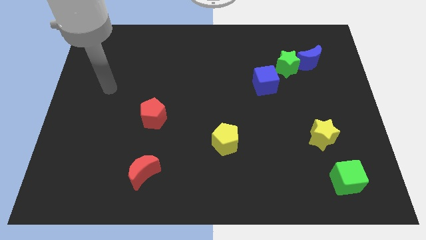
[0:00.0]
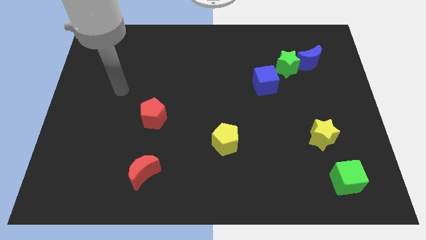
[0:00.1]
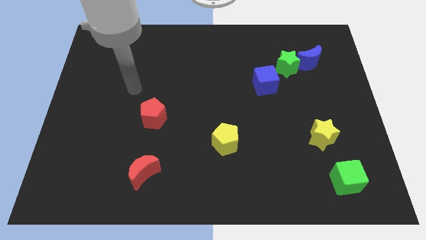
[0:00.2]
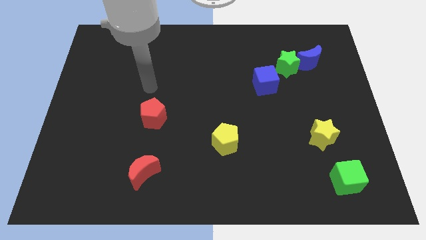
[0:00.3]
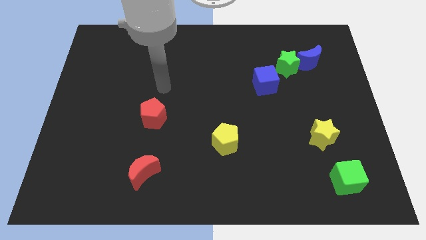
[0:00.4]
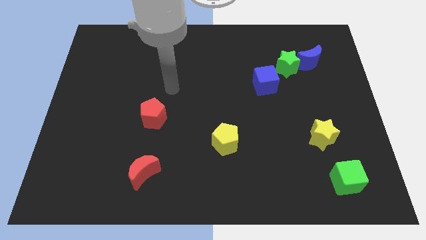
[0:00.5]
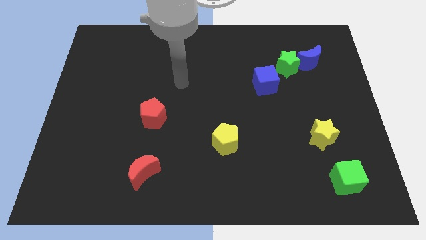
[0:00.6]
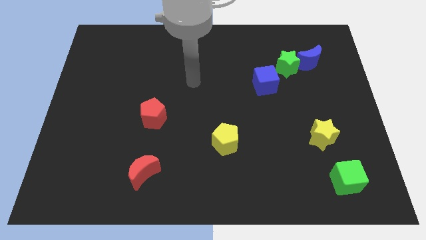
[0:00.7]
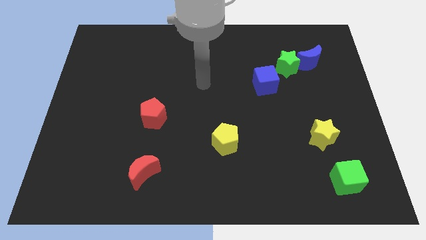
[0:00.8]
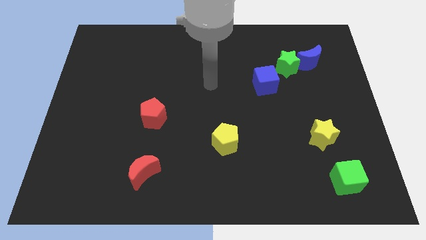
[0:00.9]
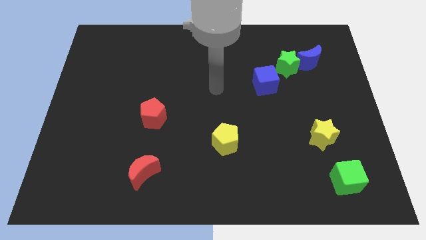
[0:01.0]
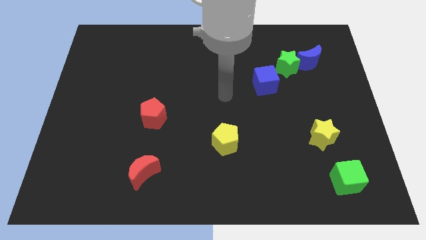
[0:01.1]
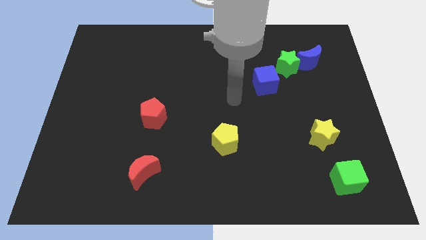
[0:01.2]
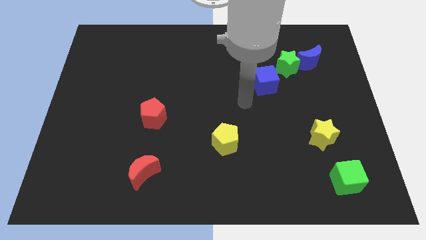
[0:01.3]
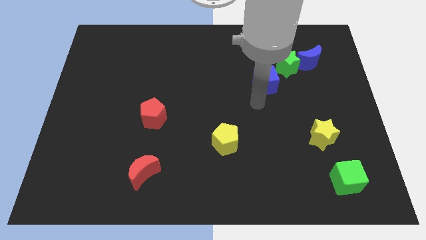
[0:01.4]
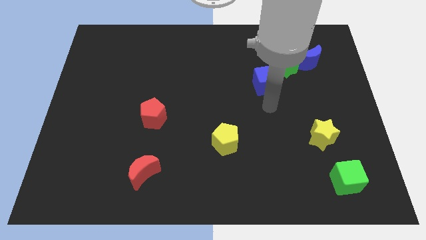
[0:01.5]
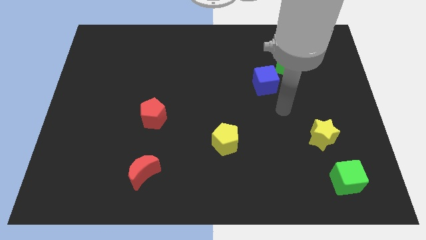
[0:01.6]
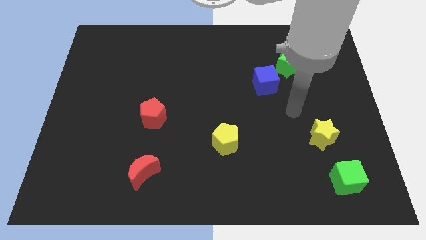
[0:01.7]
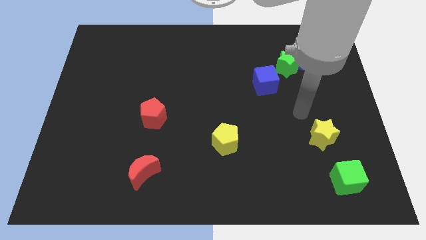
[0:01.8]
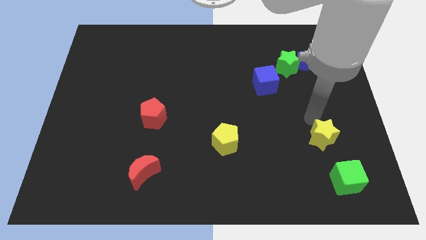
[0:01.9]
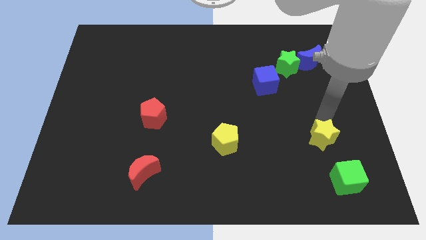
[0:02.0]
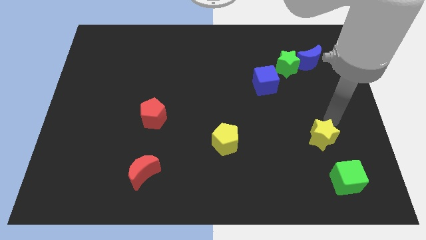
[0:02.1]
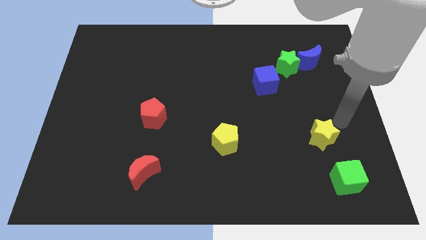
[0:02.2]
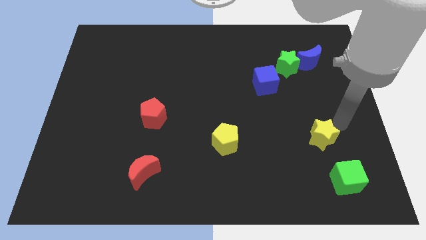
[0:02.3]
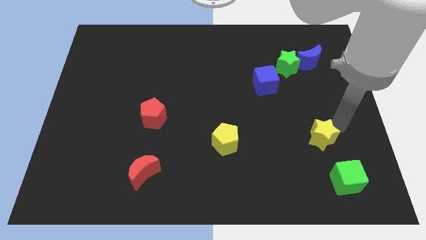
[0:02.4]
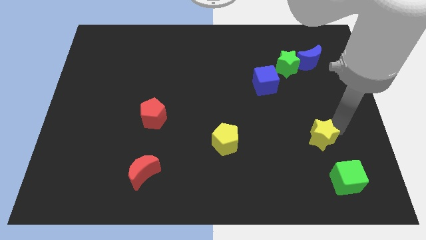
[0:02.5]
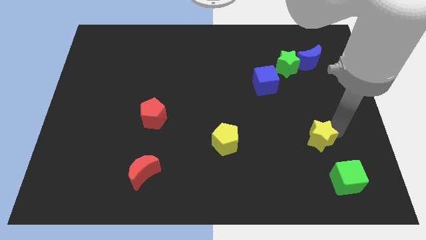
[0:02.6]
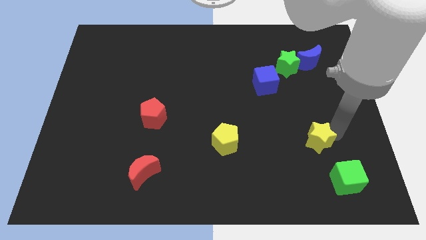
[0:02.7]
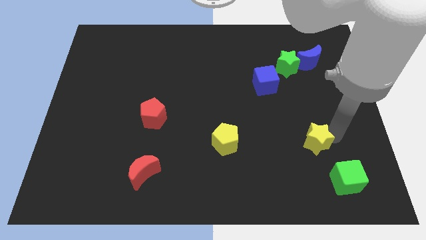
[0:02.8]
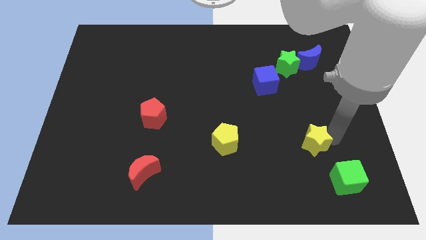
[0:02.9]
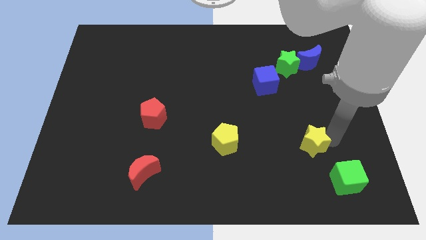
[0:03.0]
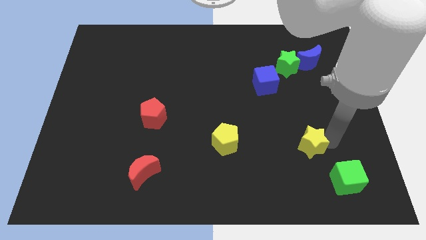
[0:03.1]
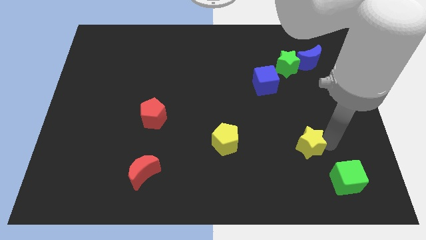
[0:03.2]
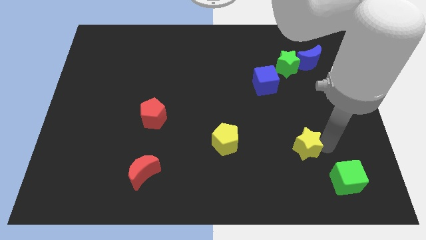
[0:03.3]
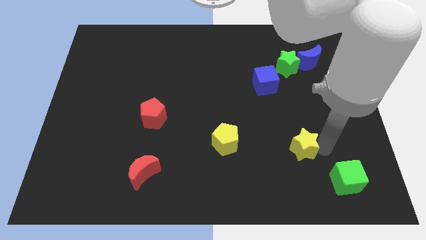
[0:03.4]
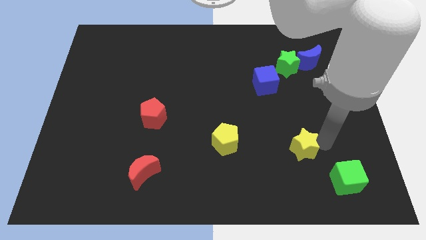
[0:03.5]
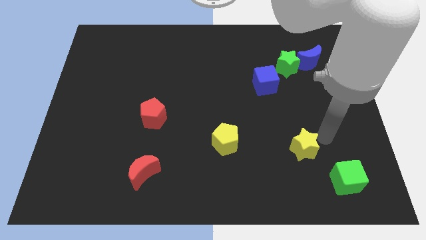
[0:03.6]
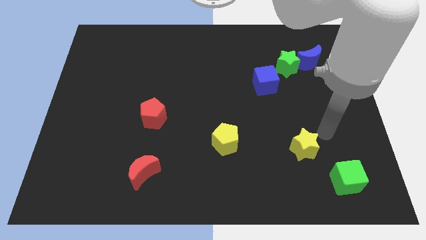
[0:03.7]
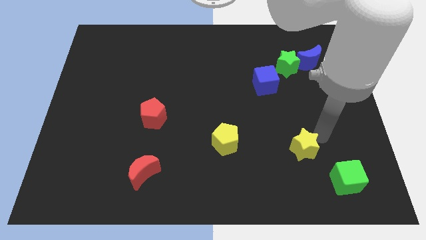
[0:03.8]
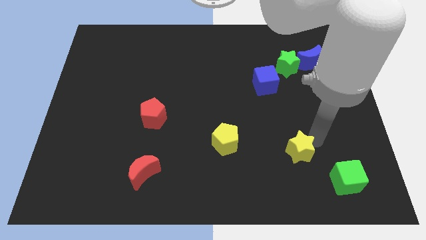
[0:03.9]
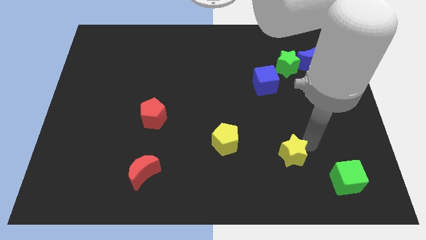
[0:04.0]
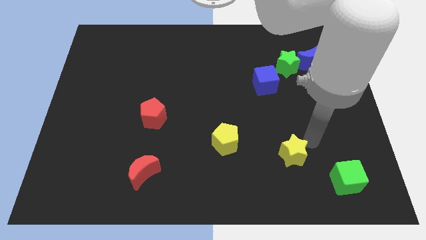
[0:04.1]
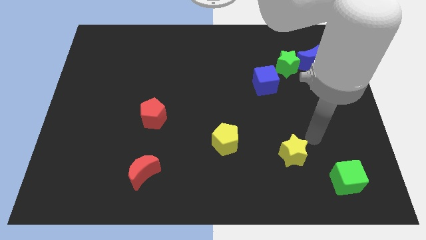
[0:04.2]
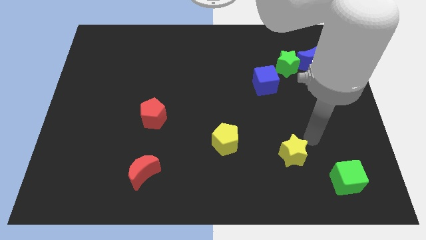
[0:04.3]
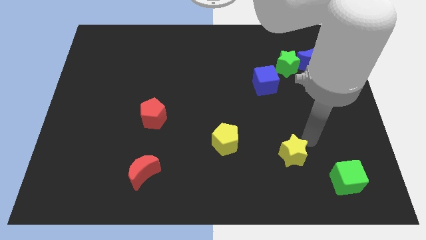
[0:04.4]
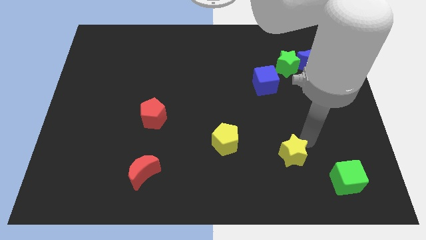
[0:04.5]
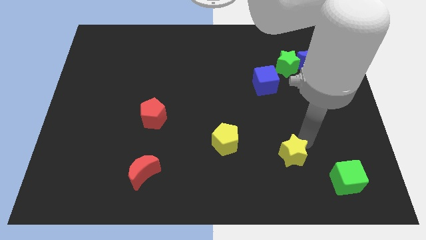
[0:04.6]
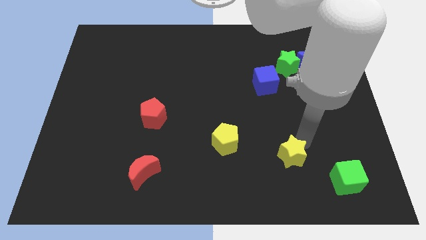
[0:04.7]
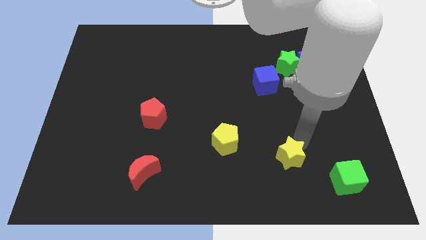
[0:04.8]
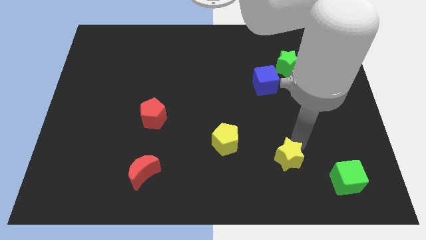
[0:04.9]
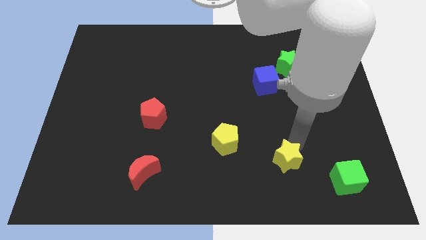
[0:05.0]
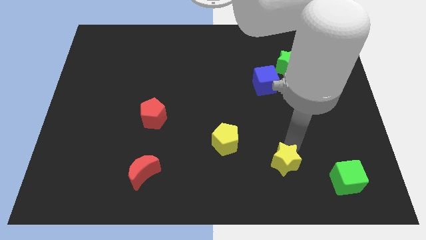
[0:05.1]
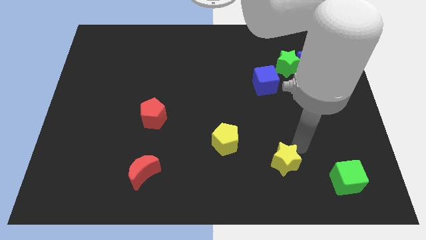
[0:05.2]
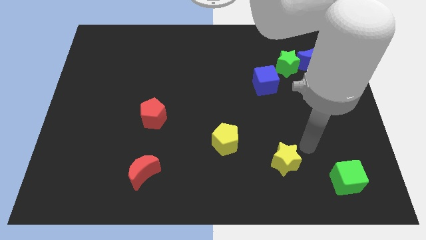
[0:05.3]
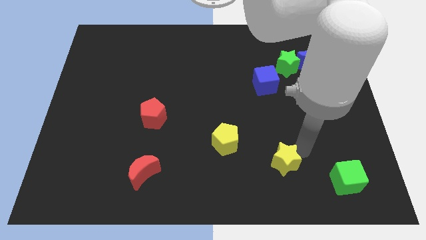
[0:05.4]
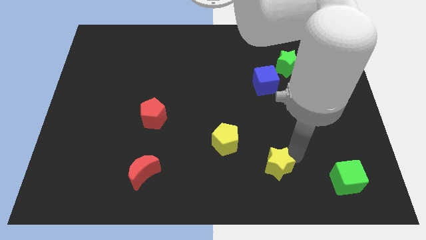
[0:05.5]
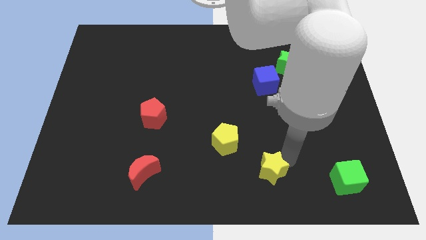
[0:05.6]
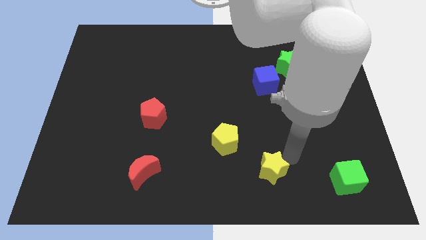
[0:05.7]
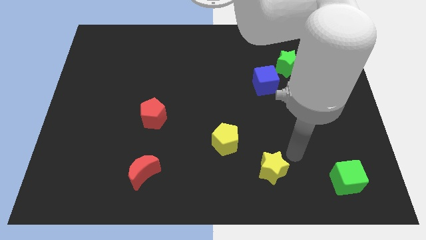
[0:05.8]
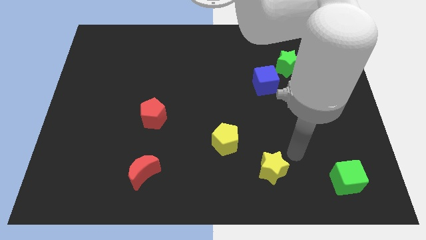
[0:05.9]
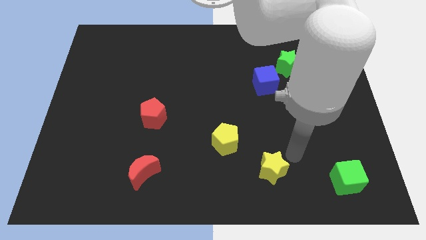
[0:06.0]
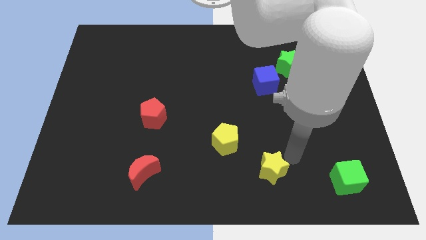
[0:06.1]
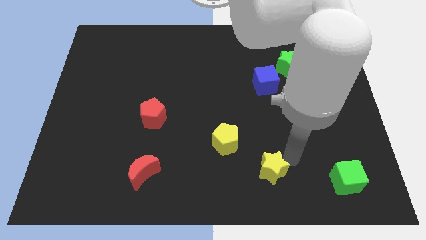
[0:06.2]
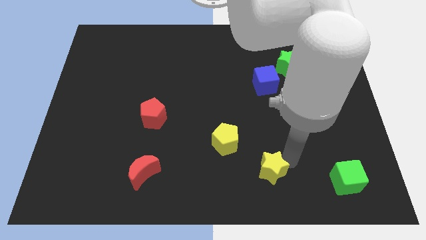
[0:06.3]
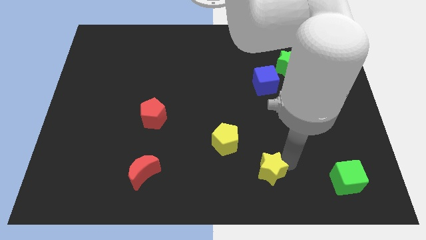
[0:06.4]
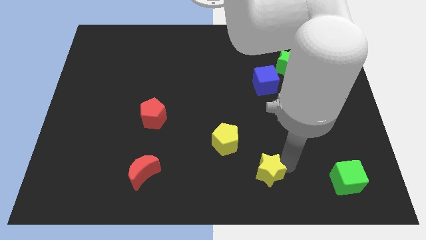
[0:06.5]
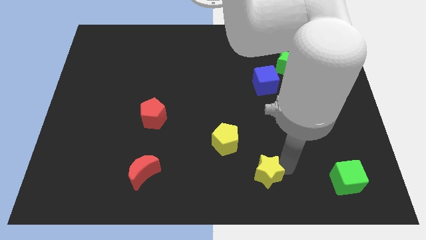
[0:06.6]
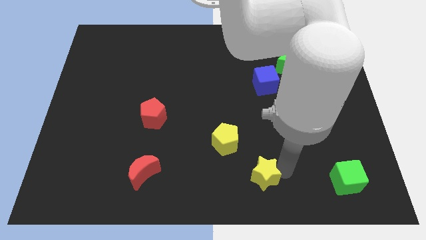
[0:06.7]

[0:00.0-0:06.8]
push the yellow star to the bottom side

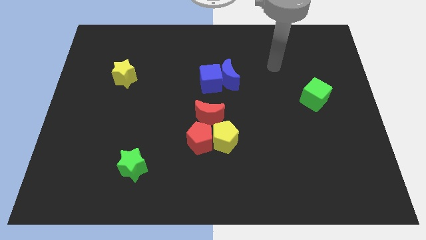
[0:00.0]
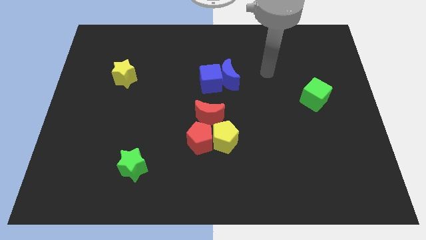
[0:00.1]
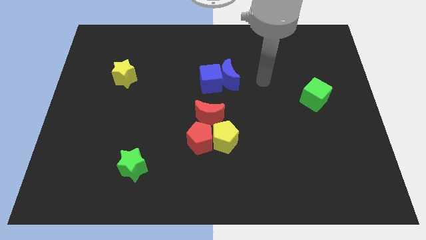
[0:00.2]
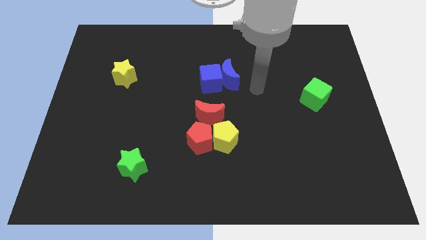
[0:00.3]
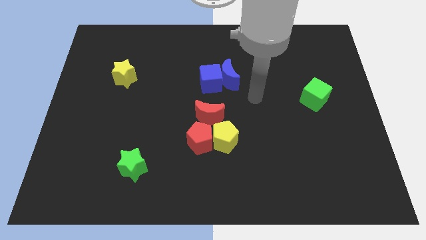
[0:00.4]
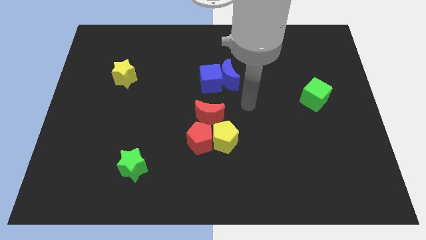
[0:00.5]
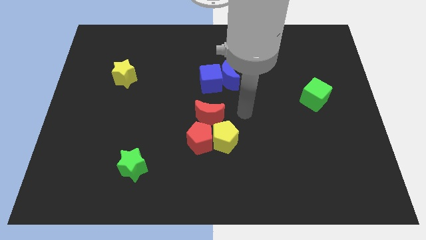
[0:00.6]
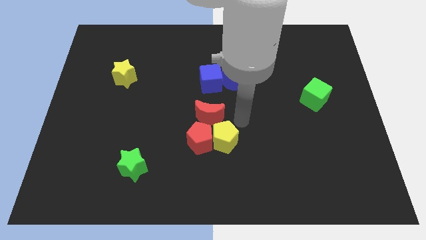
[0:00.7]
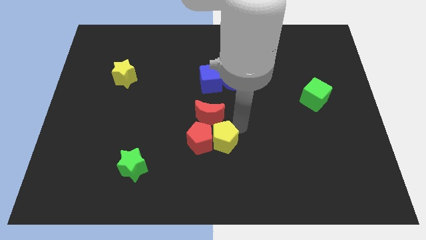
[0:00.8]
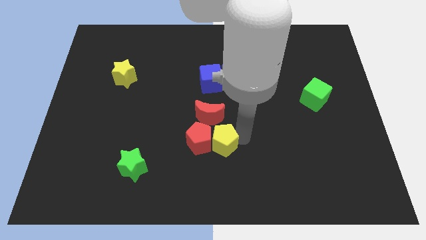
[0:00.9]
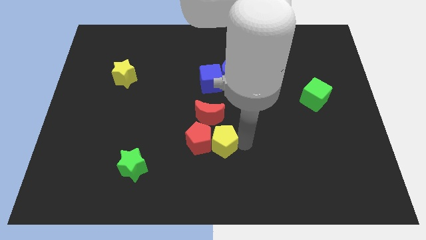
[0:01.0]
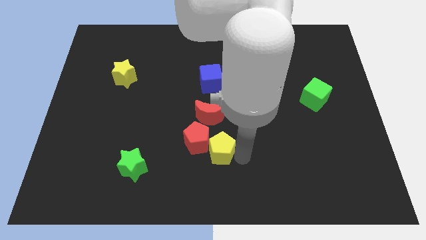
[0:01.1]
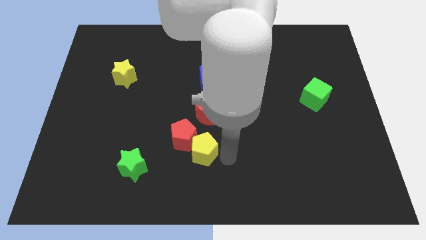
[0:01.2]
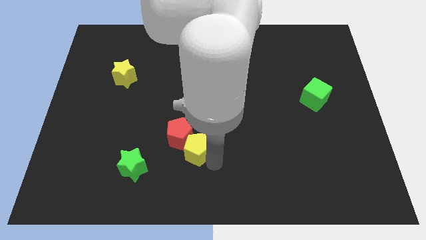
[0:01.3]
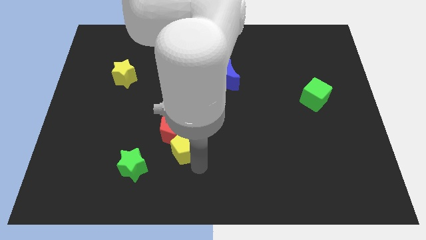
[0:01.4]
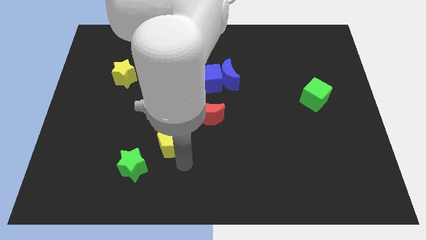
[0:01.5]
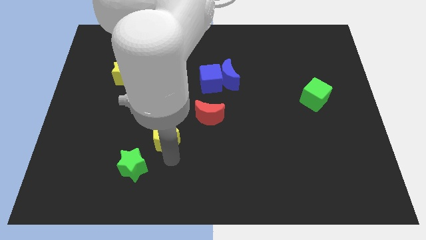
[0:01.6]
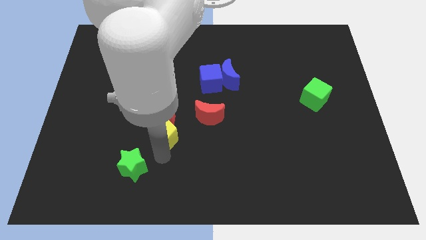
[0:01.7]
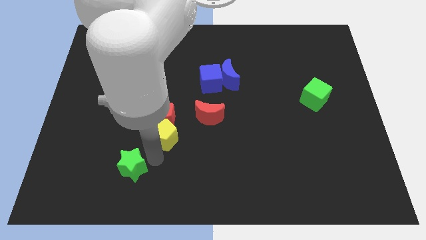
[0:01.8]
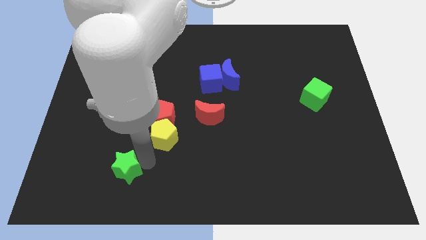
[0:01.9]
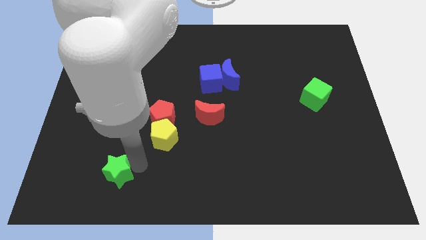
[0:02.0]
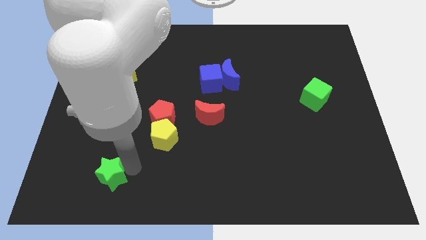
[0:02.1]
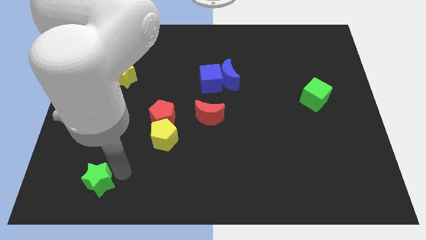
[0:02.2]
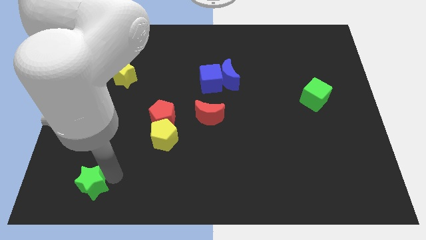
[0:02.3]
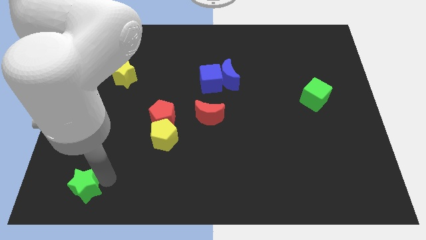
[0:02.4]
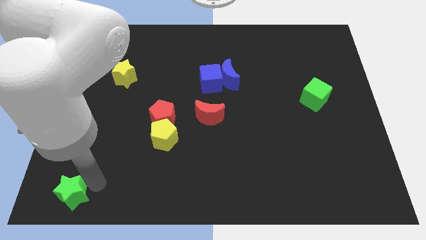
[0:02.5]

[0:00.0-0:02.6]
move the green star to the bottom left corner
